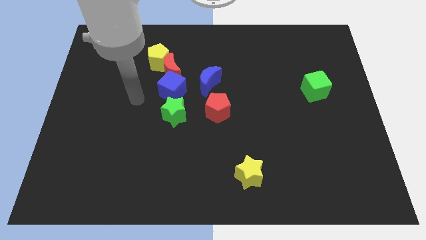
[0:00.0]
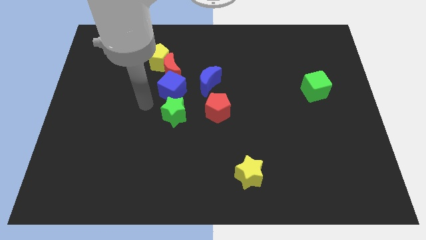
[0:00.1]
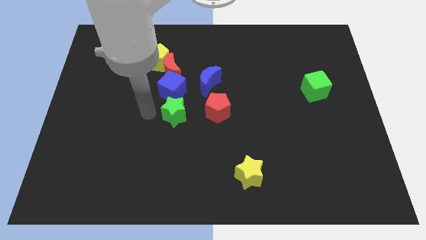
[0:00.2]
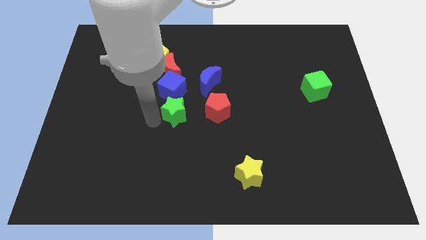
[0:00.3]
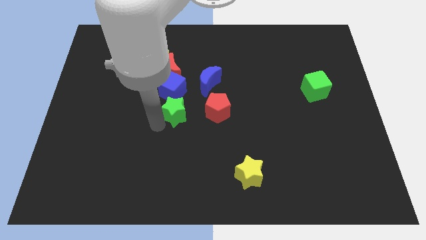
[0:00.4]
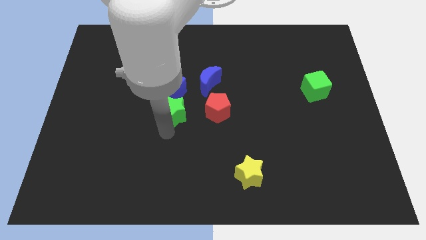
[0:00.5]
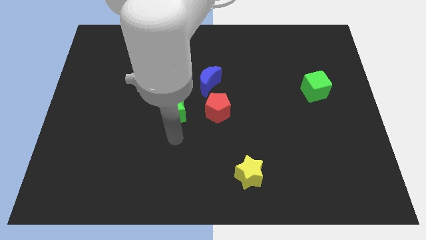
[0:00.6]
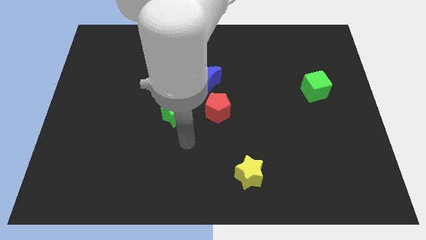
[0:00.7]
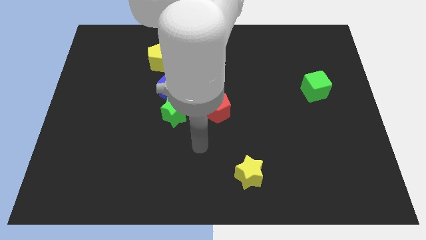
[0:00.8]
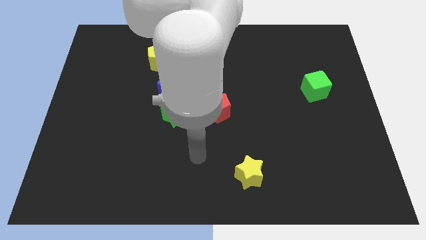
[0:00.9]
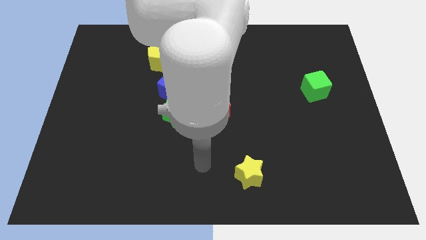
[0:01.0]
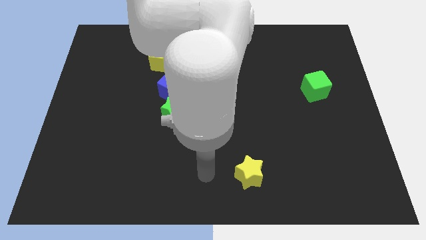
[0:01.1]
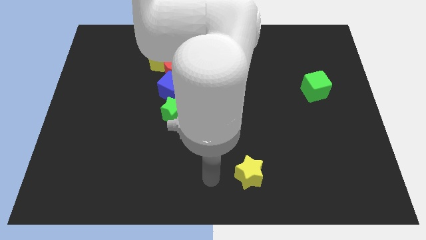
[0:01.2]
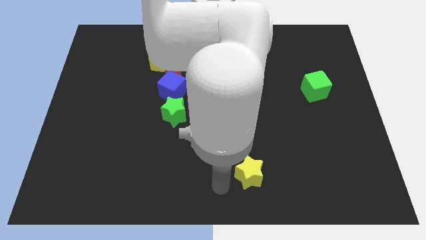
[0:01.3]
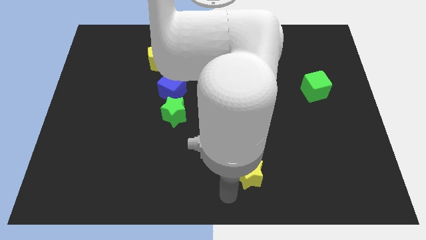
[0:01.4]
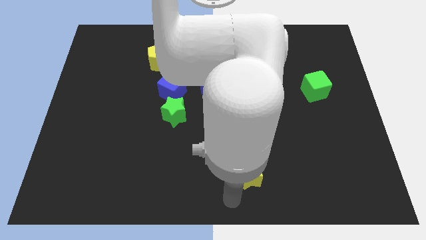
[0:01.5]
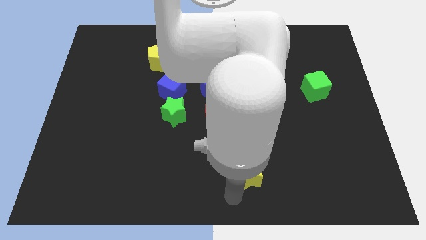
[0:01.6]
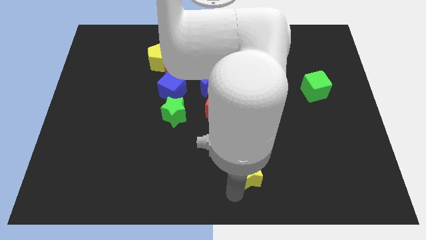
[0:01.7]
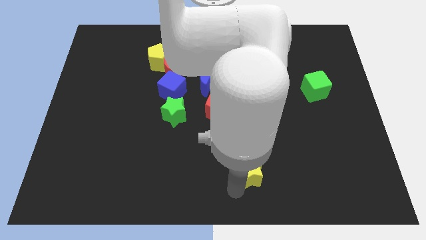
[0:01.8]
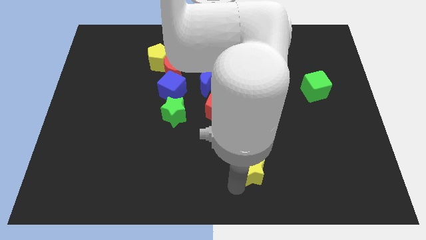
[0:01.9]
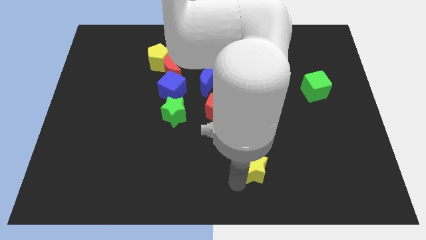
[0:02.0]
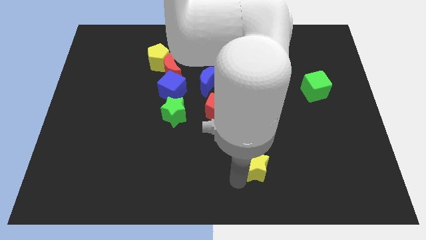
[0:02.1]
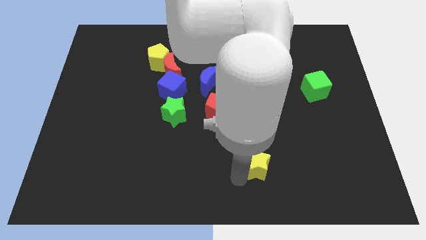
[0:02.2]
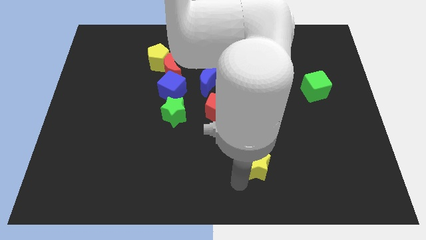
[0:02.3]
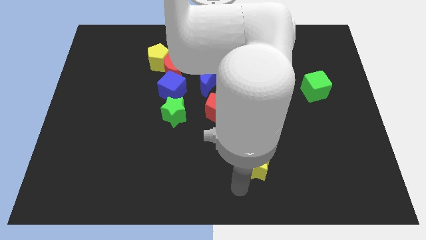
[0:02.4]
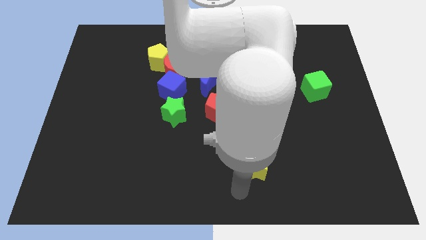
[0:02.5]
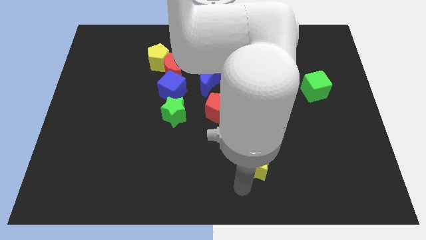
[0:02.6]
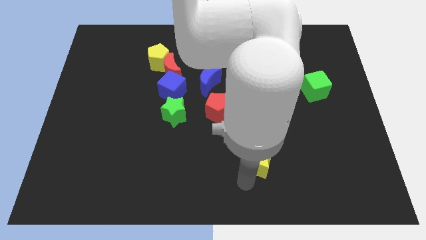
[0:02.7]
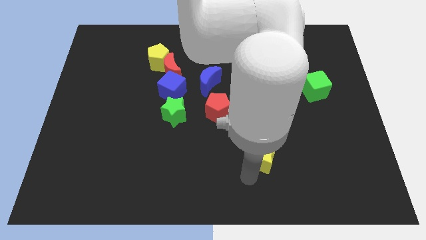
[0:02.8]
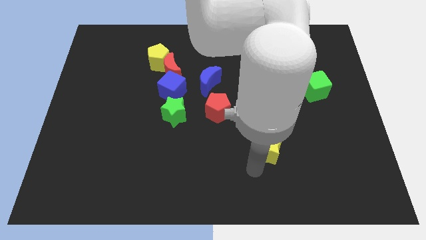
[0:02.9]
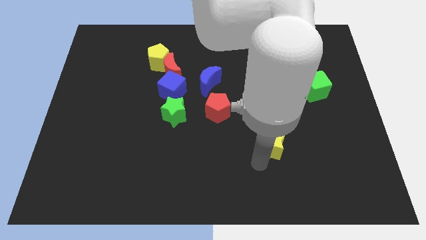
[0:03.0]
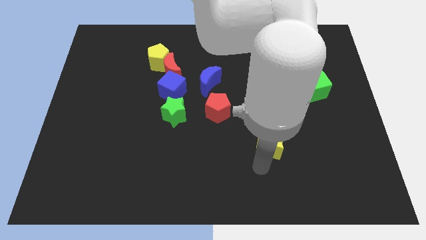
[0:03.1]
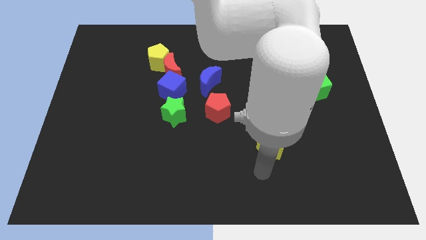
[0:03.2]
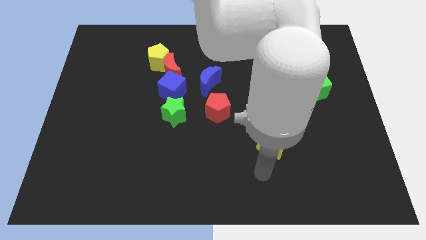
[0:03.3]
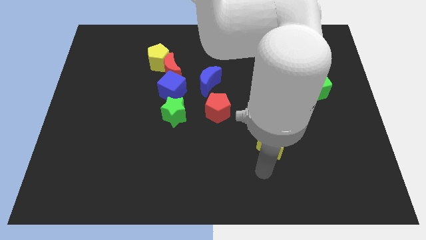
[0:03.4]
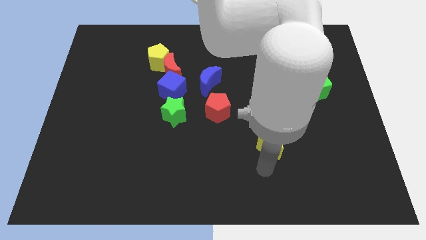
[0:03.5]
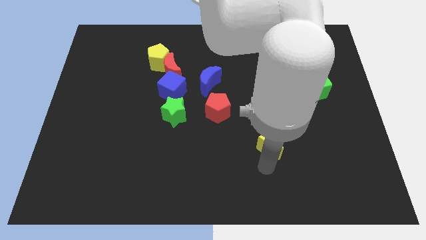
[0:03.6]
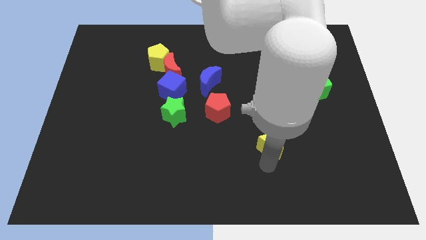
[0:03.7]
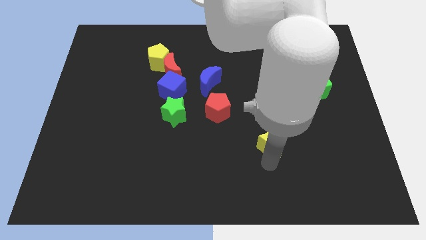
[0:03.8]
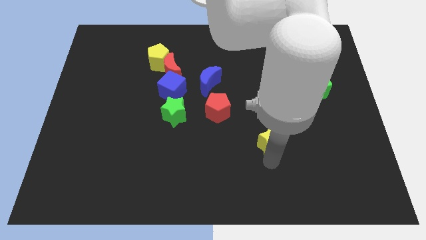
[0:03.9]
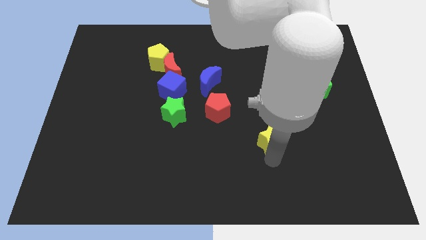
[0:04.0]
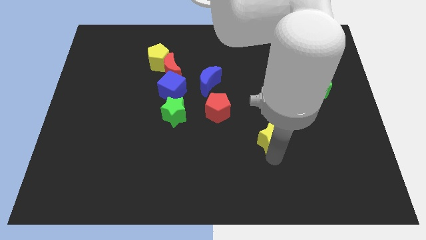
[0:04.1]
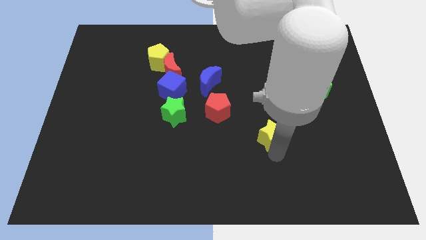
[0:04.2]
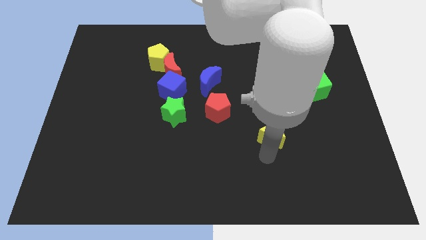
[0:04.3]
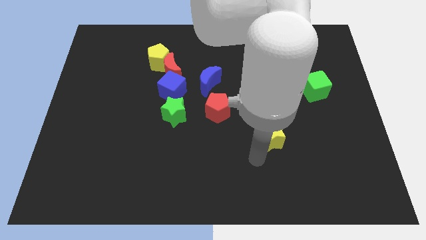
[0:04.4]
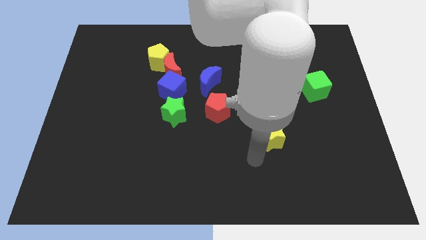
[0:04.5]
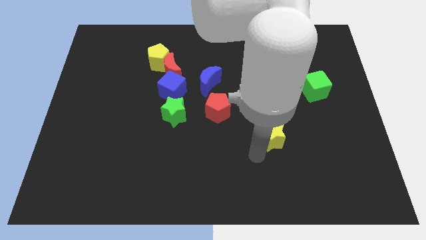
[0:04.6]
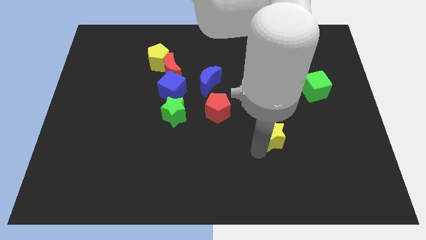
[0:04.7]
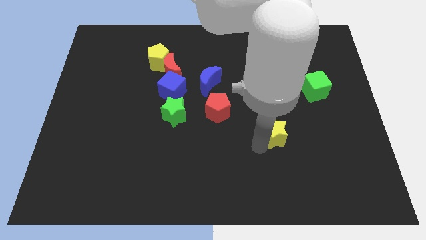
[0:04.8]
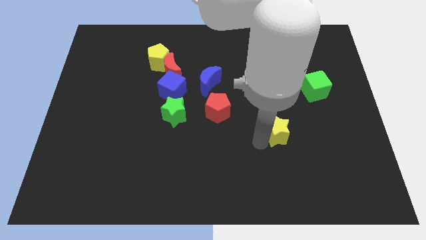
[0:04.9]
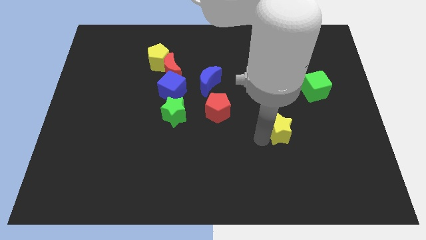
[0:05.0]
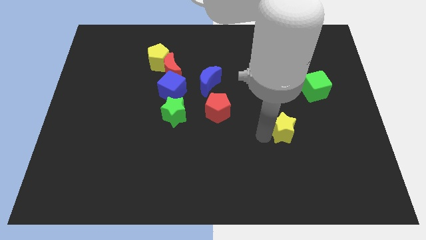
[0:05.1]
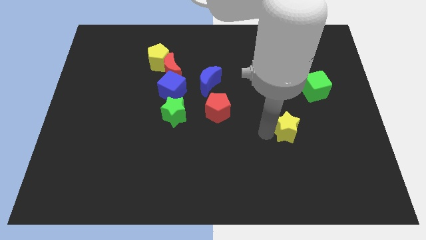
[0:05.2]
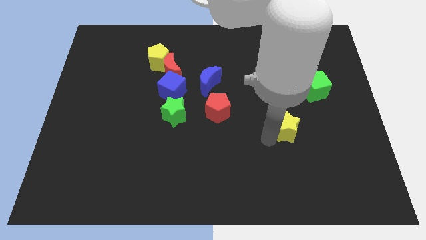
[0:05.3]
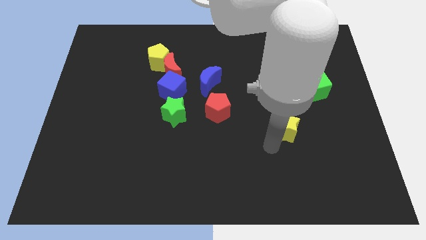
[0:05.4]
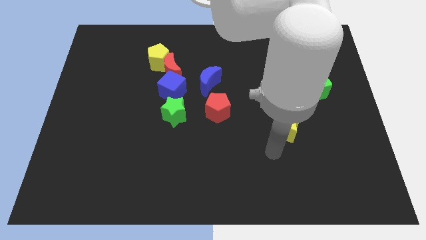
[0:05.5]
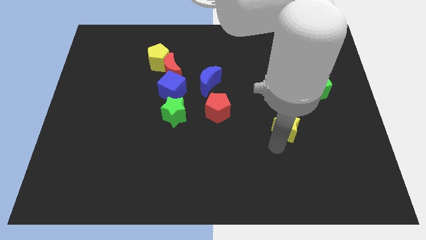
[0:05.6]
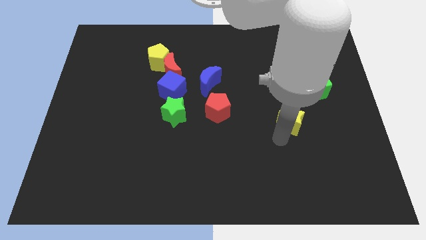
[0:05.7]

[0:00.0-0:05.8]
push the yellow star diagonally down and to the left of the green cube

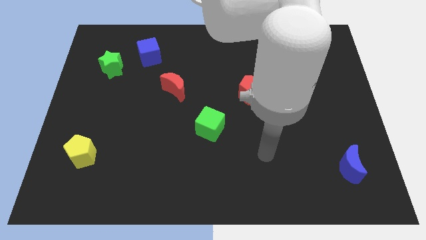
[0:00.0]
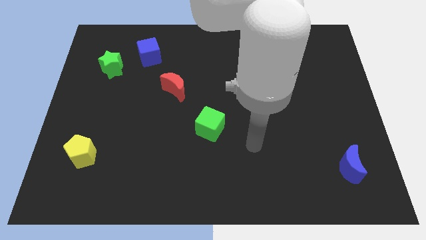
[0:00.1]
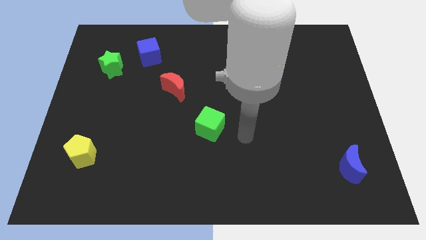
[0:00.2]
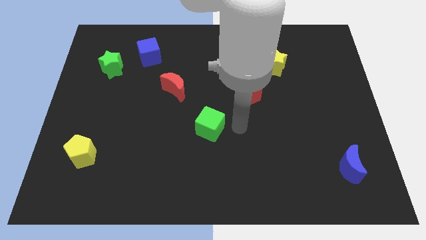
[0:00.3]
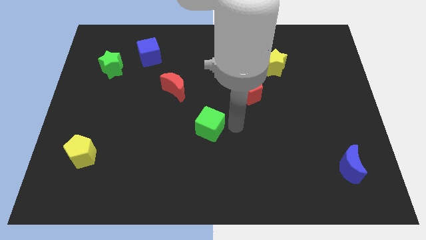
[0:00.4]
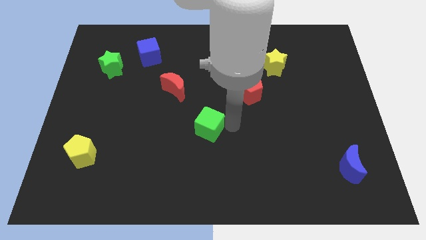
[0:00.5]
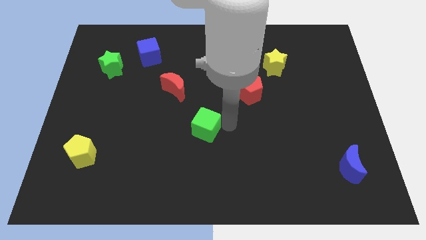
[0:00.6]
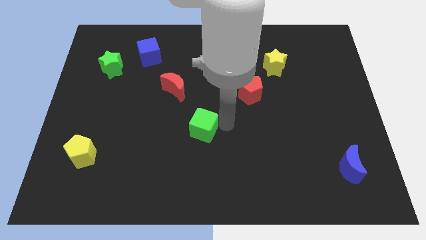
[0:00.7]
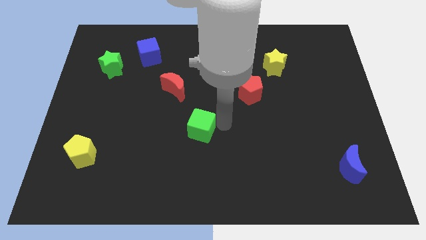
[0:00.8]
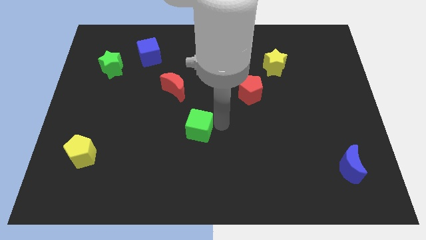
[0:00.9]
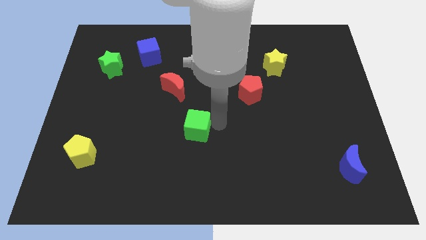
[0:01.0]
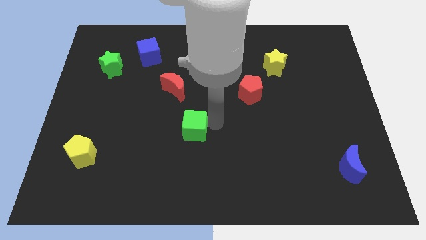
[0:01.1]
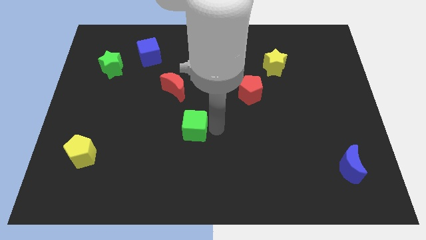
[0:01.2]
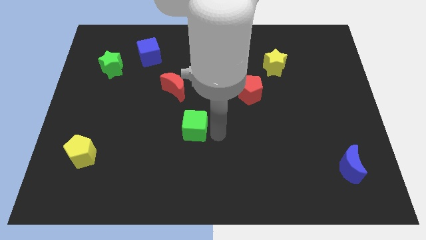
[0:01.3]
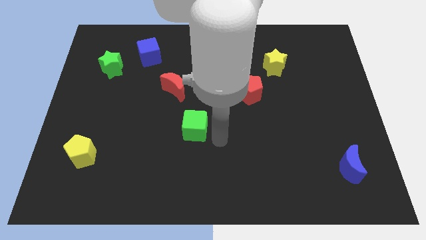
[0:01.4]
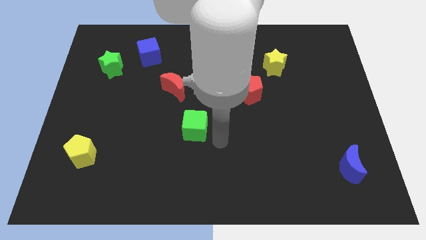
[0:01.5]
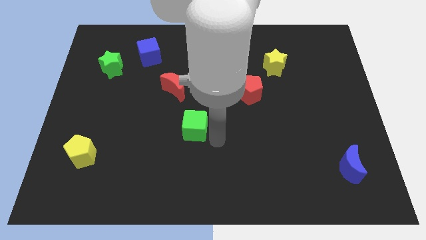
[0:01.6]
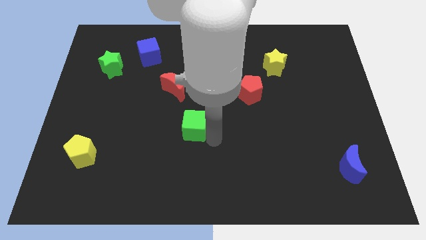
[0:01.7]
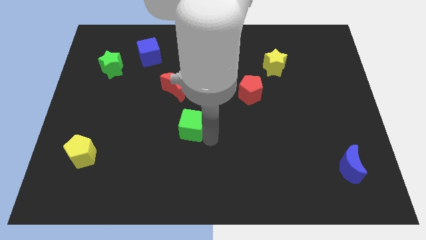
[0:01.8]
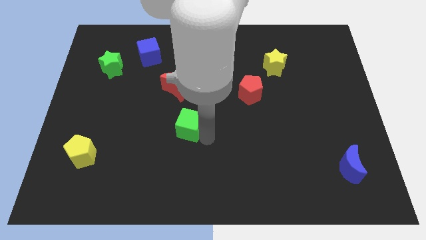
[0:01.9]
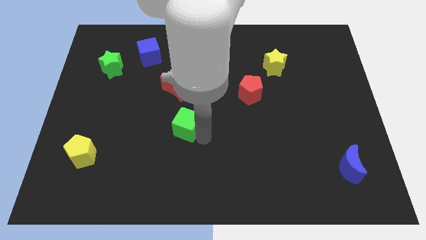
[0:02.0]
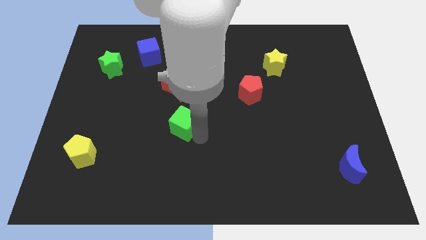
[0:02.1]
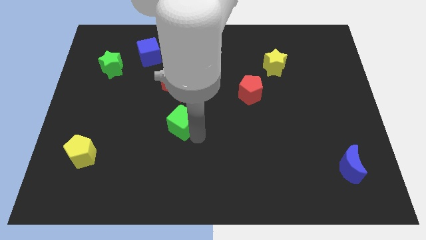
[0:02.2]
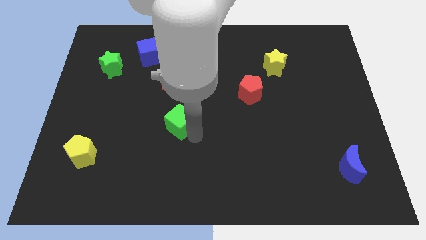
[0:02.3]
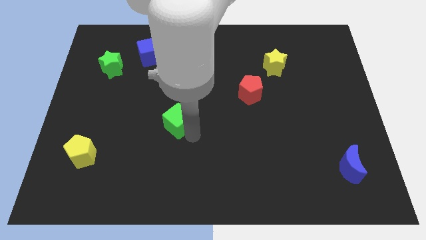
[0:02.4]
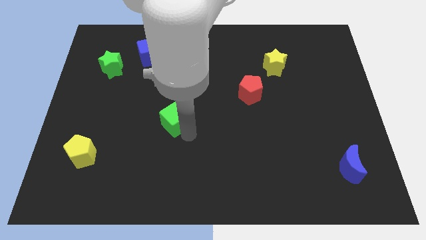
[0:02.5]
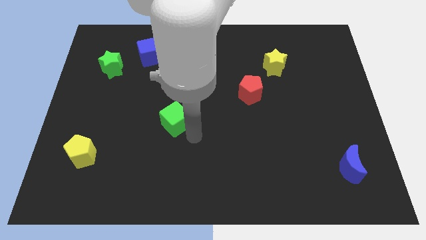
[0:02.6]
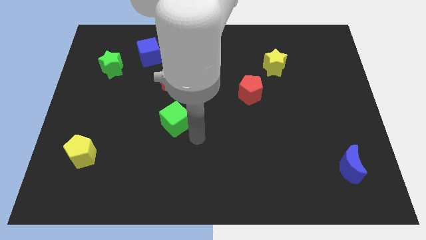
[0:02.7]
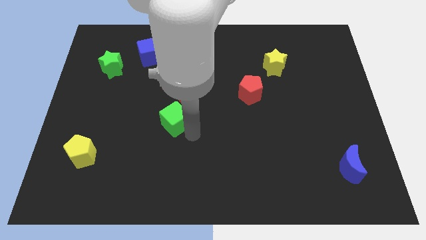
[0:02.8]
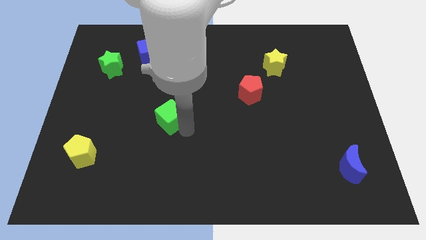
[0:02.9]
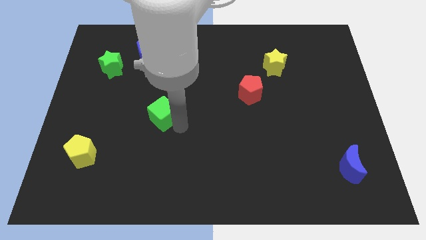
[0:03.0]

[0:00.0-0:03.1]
move the green cube to the bottom left of the red moon
